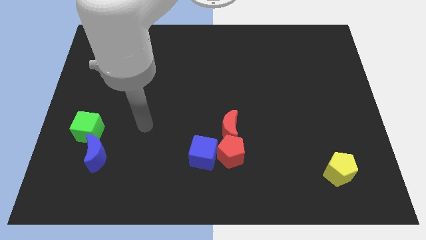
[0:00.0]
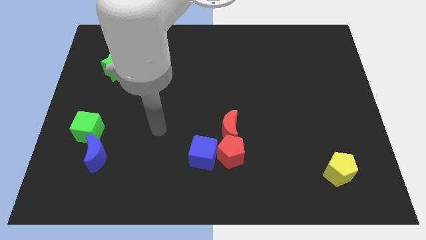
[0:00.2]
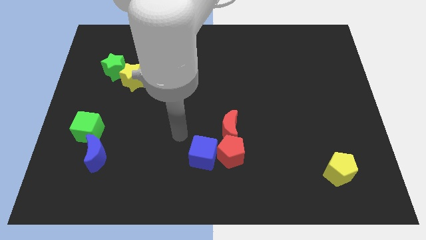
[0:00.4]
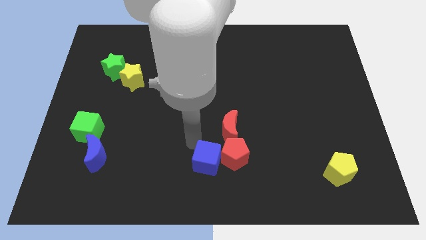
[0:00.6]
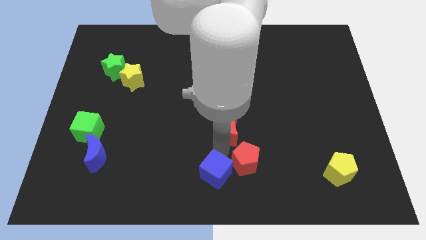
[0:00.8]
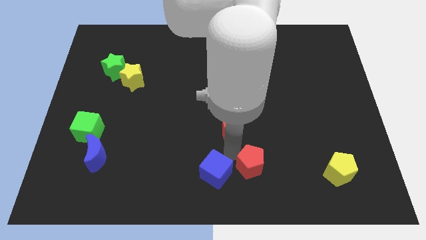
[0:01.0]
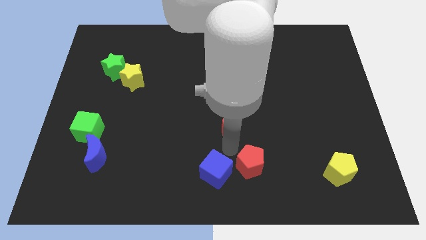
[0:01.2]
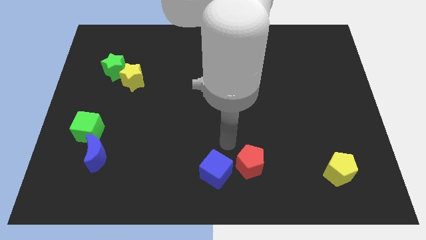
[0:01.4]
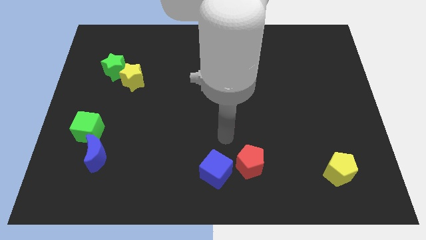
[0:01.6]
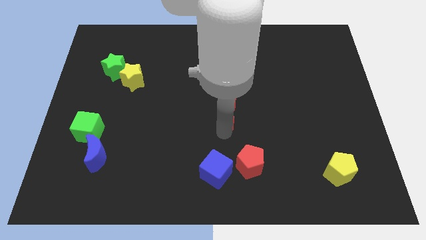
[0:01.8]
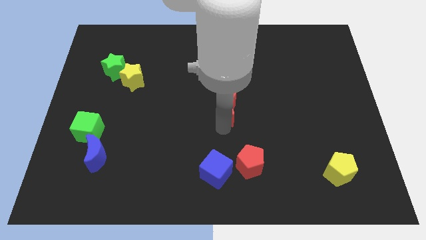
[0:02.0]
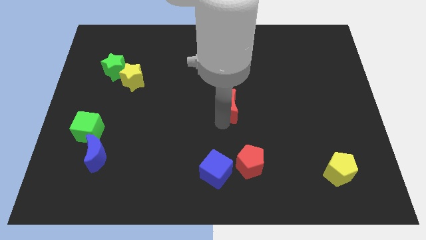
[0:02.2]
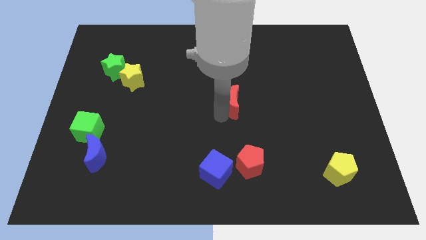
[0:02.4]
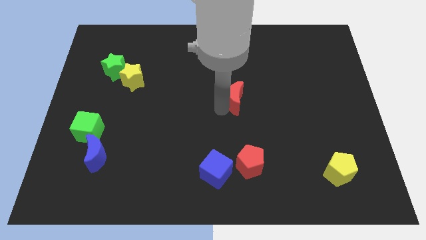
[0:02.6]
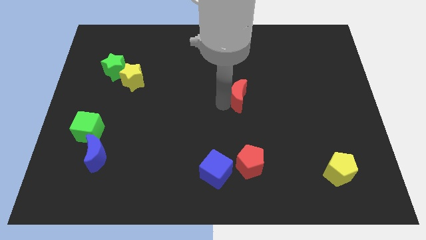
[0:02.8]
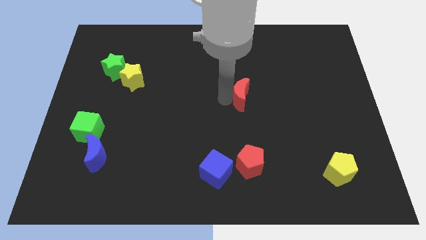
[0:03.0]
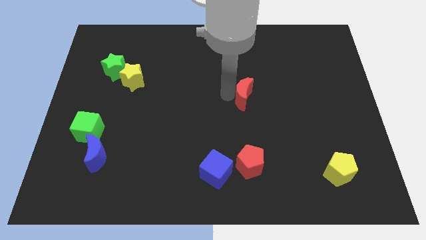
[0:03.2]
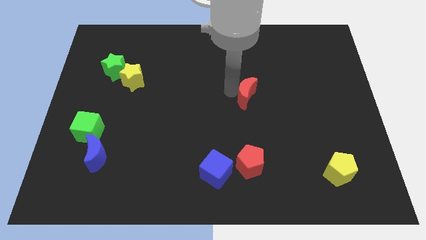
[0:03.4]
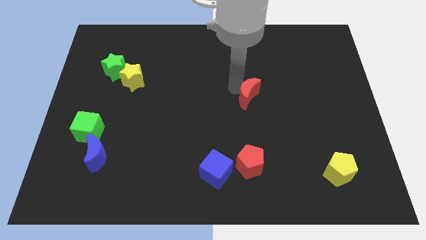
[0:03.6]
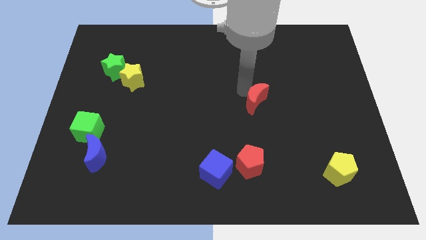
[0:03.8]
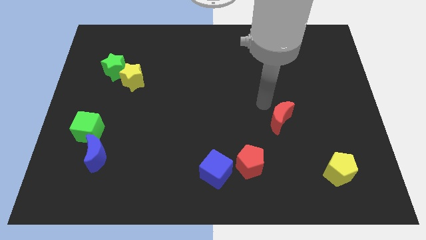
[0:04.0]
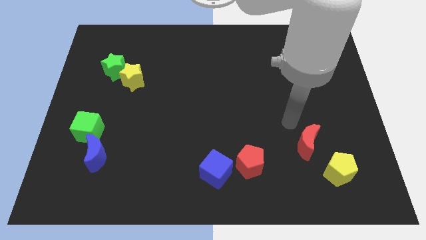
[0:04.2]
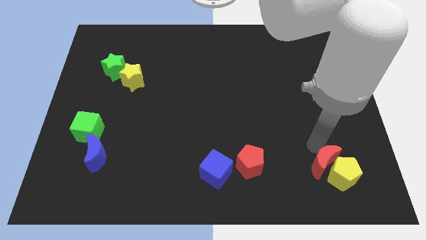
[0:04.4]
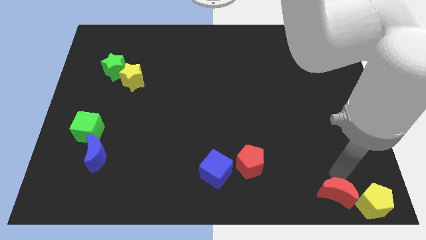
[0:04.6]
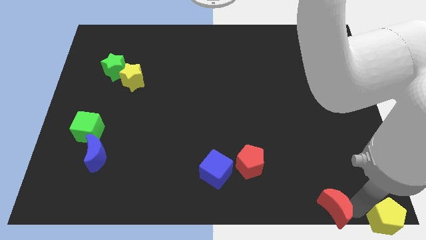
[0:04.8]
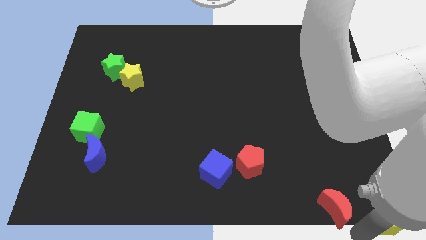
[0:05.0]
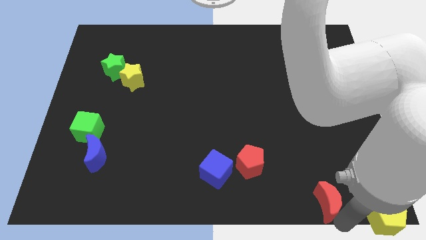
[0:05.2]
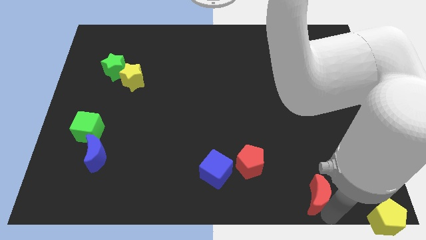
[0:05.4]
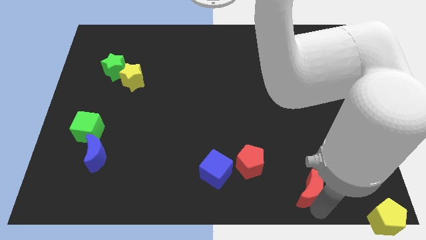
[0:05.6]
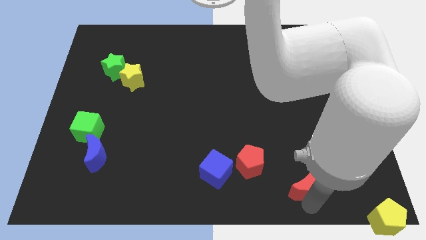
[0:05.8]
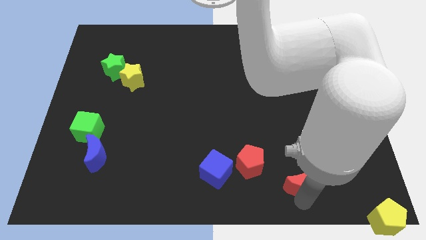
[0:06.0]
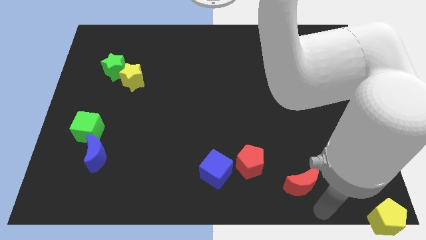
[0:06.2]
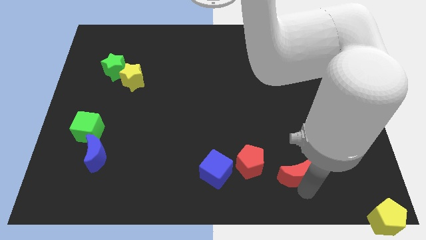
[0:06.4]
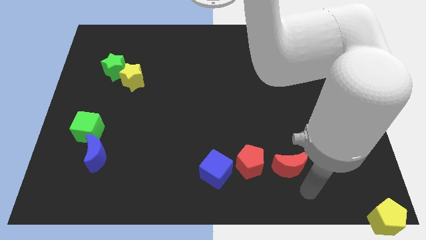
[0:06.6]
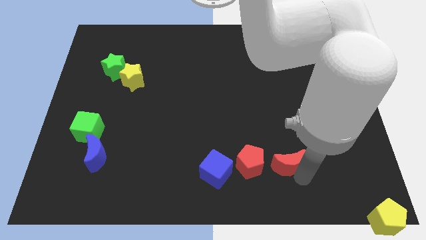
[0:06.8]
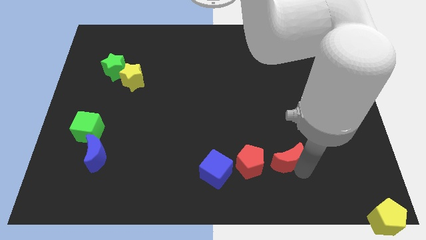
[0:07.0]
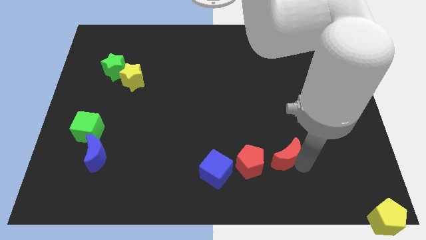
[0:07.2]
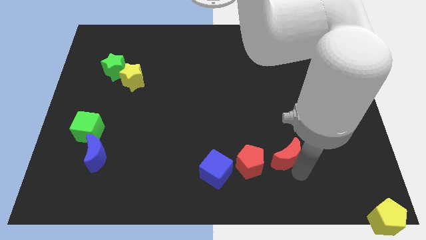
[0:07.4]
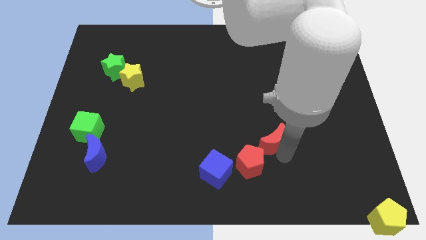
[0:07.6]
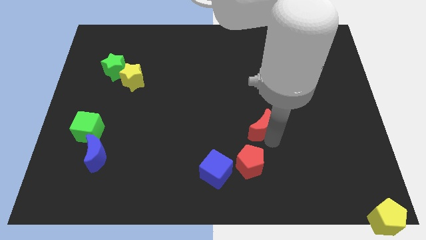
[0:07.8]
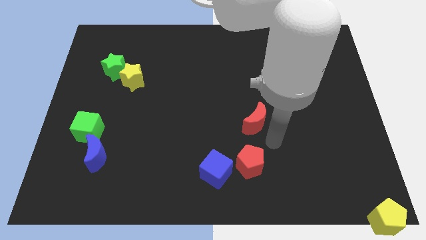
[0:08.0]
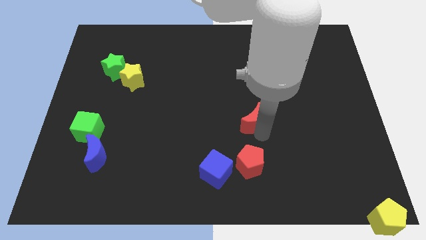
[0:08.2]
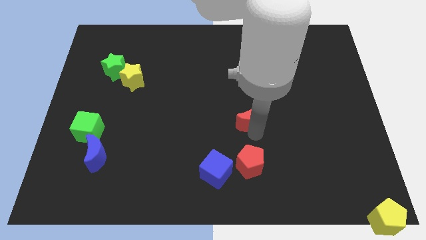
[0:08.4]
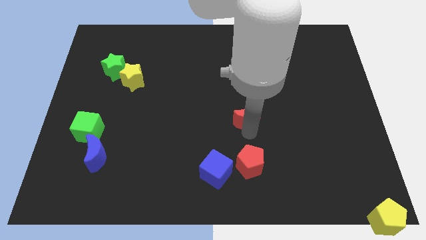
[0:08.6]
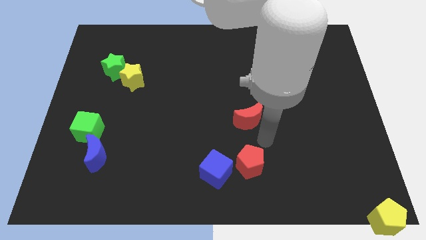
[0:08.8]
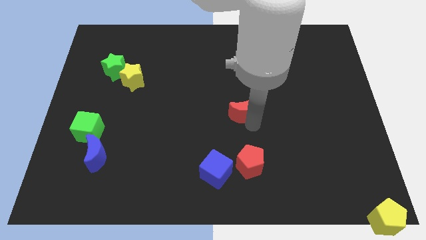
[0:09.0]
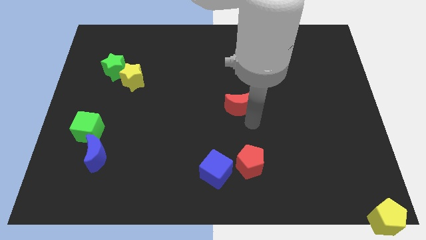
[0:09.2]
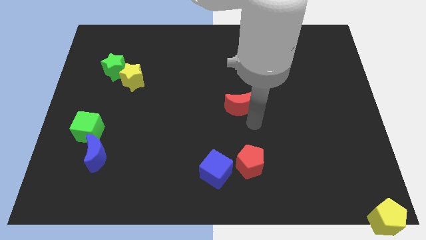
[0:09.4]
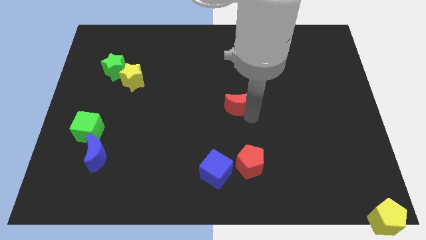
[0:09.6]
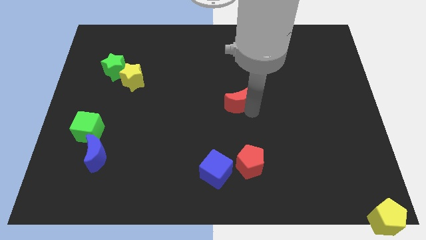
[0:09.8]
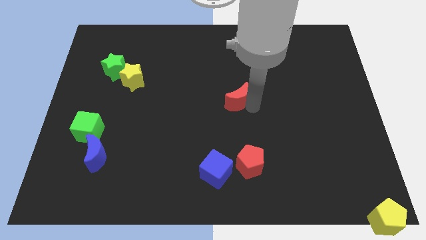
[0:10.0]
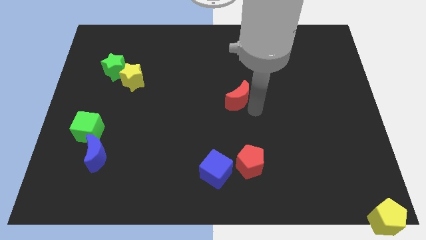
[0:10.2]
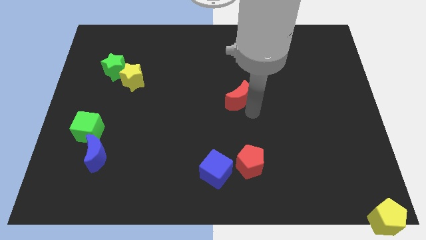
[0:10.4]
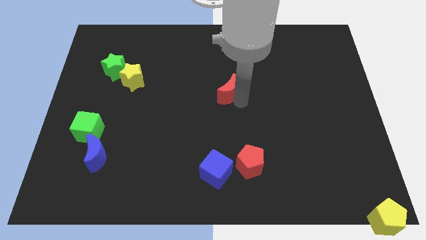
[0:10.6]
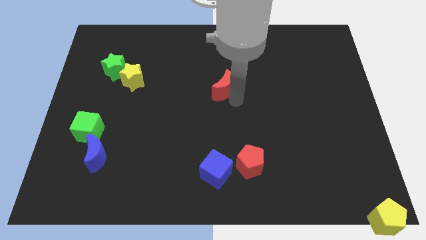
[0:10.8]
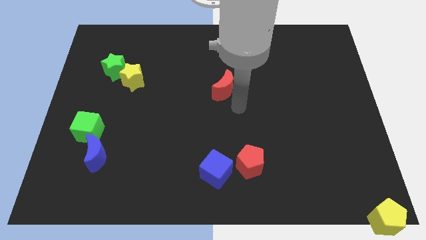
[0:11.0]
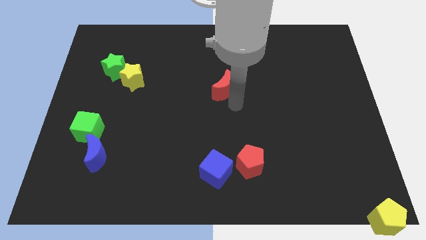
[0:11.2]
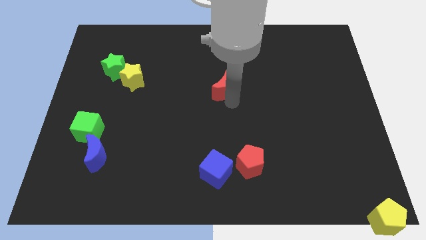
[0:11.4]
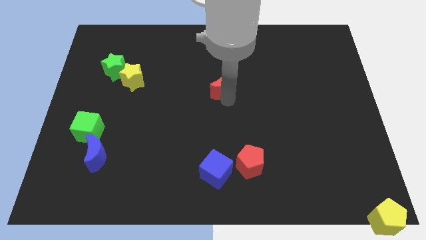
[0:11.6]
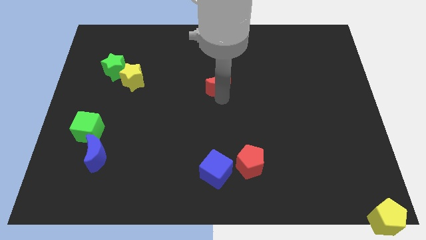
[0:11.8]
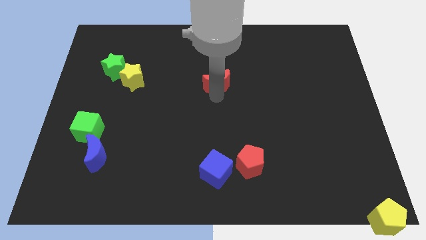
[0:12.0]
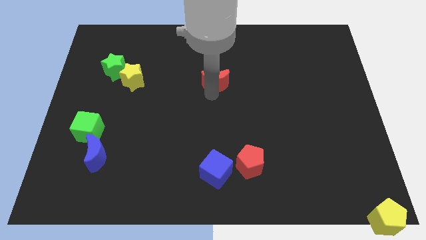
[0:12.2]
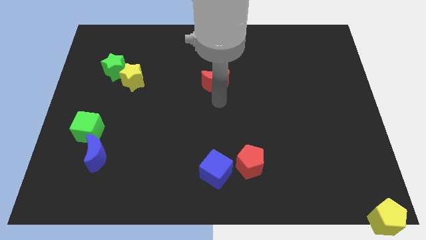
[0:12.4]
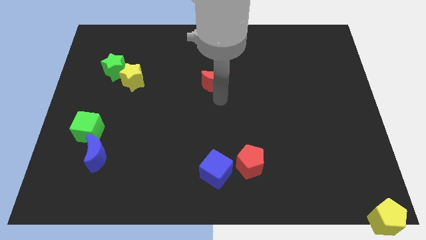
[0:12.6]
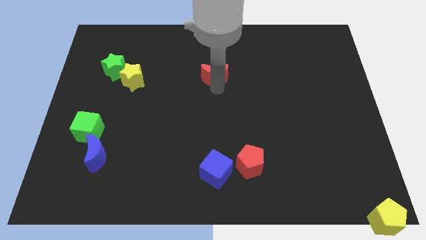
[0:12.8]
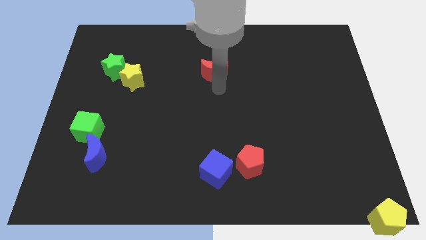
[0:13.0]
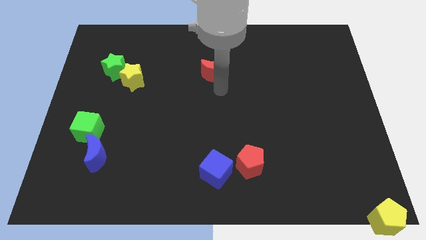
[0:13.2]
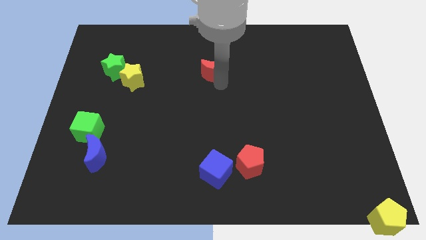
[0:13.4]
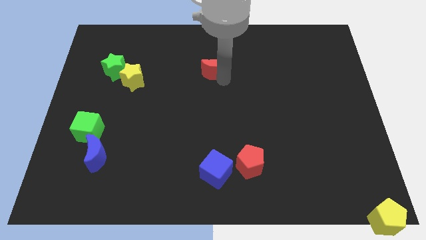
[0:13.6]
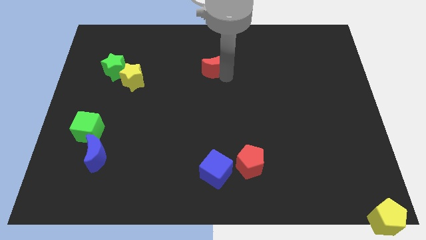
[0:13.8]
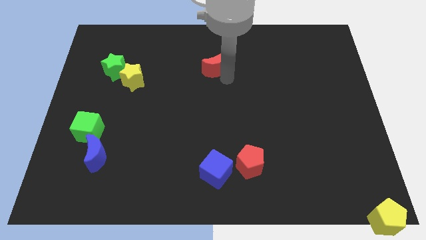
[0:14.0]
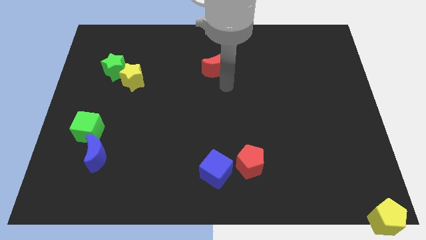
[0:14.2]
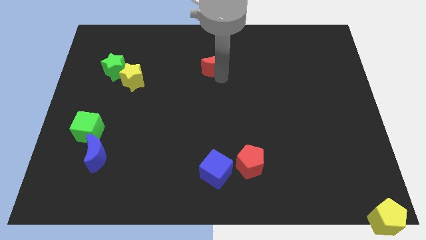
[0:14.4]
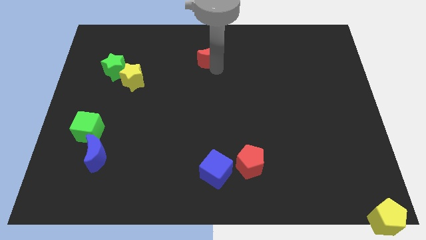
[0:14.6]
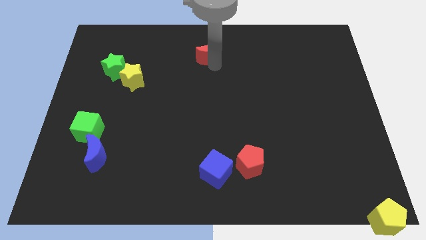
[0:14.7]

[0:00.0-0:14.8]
slide the red moon to the towards your base
